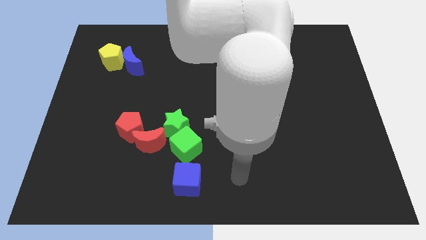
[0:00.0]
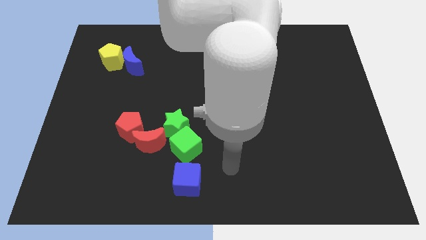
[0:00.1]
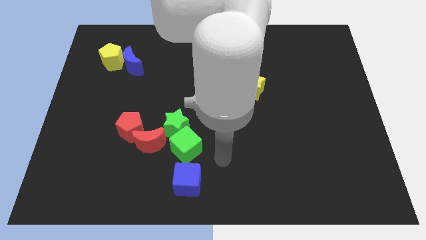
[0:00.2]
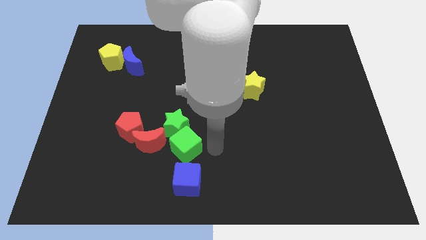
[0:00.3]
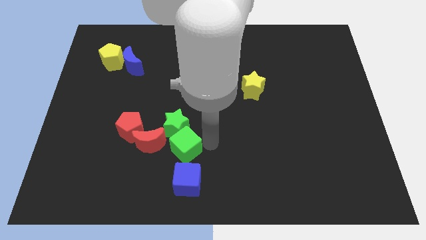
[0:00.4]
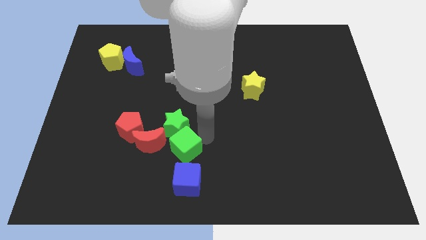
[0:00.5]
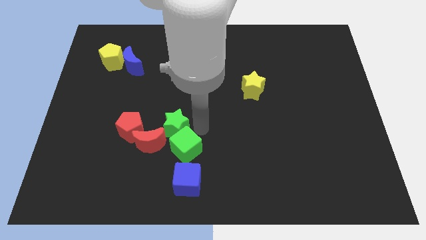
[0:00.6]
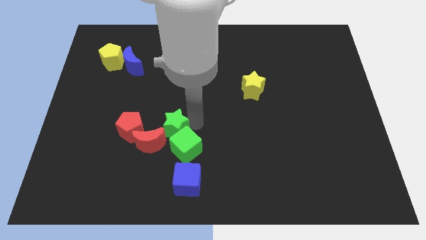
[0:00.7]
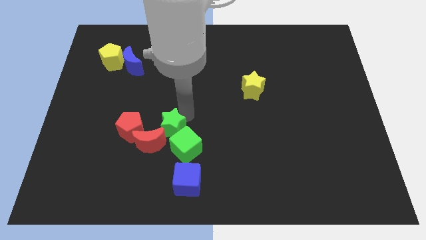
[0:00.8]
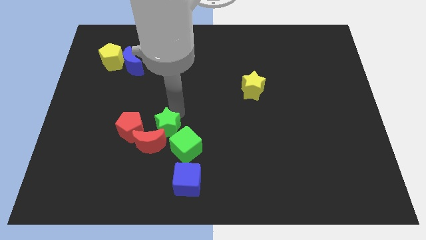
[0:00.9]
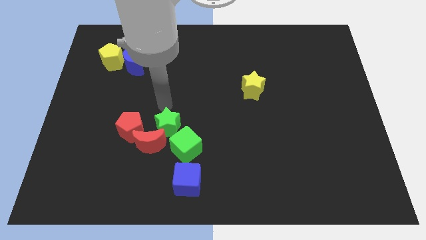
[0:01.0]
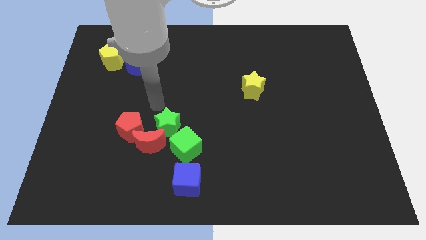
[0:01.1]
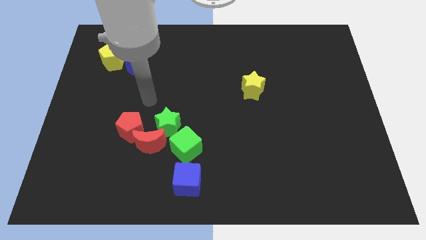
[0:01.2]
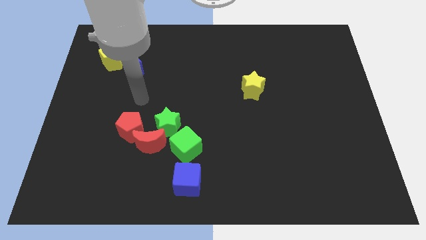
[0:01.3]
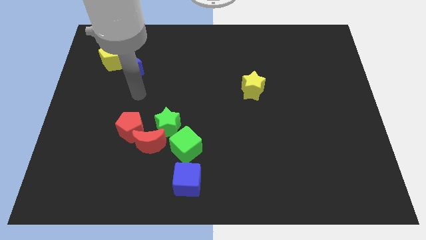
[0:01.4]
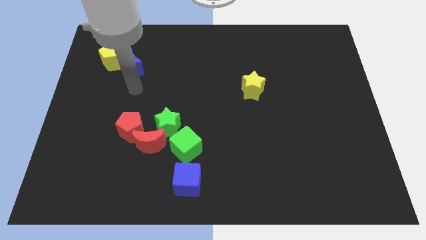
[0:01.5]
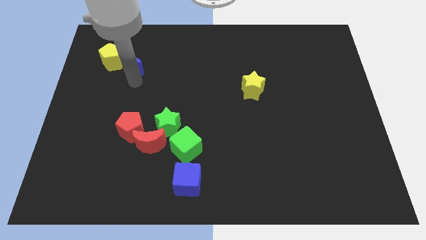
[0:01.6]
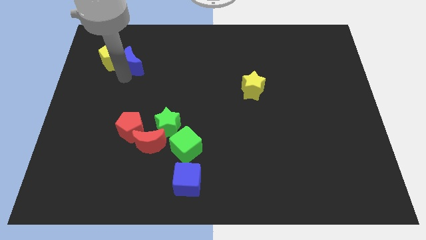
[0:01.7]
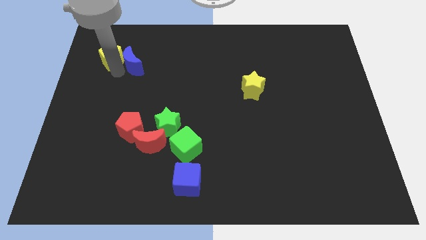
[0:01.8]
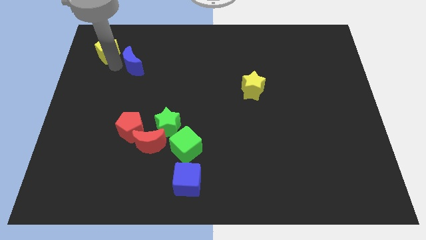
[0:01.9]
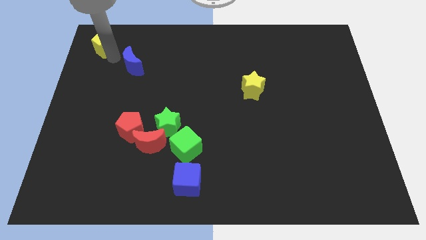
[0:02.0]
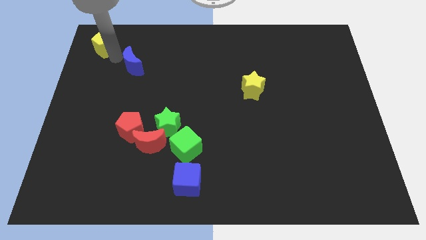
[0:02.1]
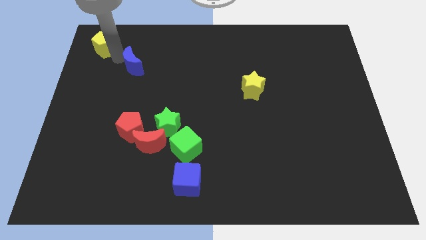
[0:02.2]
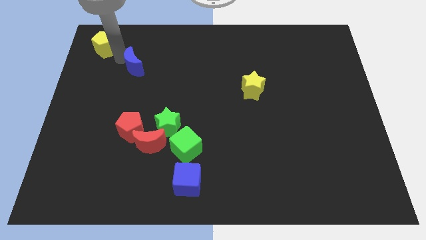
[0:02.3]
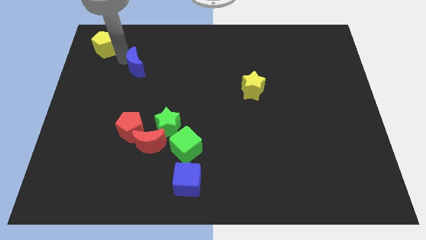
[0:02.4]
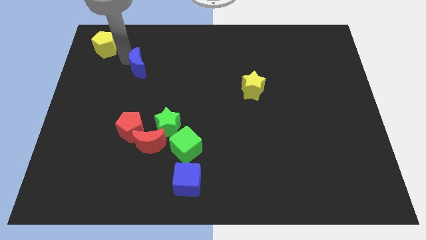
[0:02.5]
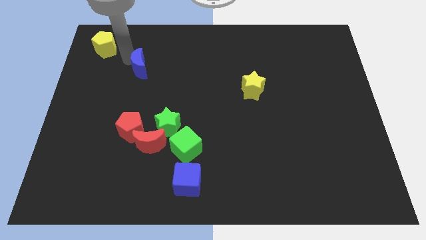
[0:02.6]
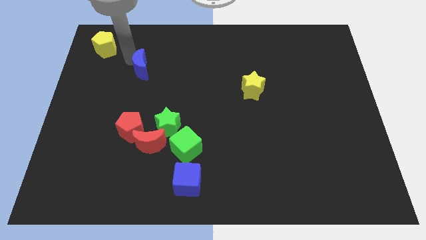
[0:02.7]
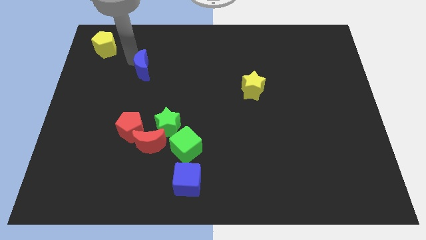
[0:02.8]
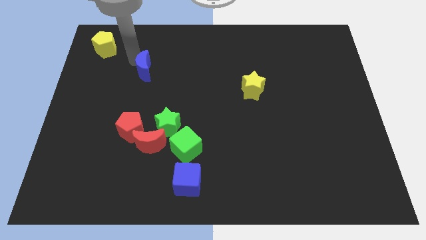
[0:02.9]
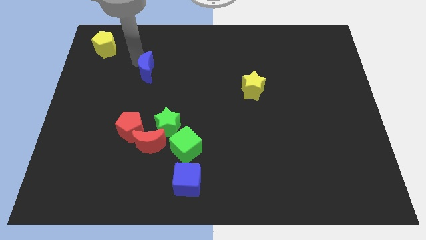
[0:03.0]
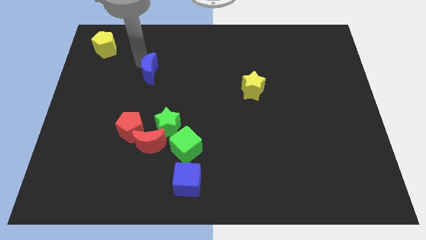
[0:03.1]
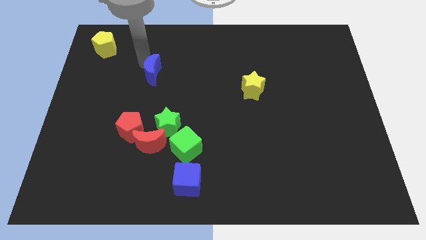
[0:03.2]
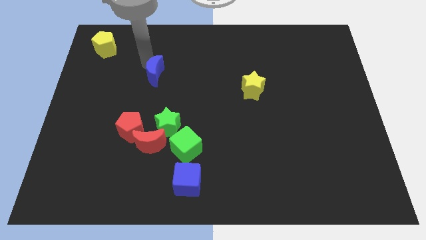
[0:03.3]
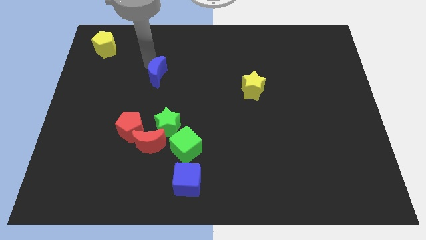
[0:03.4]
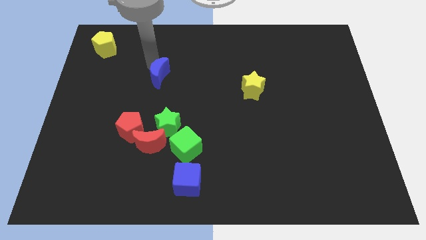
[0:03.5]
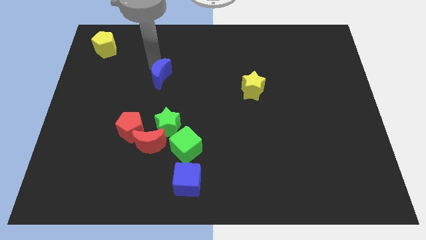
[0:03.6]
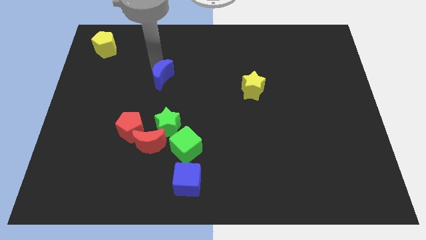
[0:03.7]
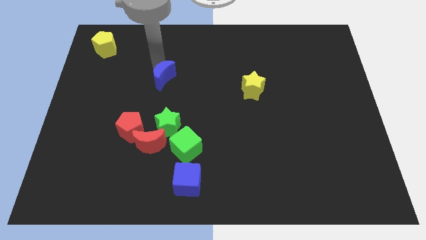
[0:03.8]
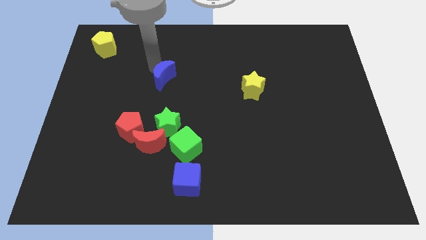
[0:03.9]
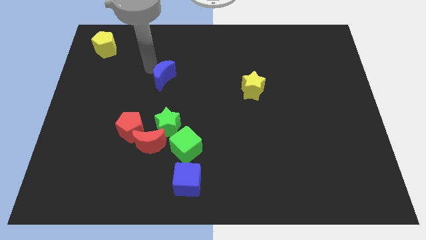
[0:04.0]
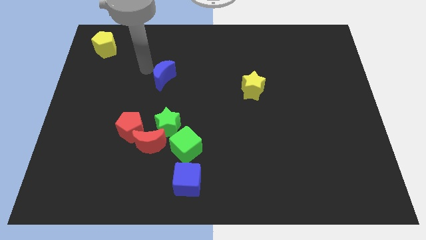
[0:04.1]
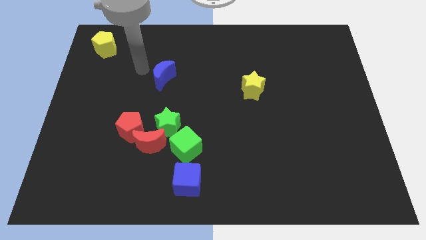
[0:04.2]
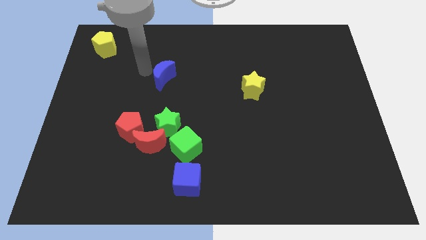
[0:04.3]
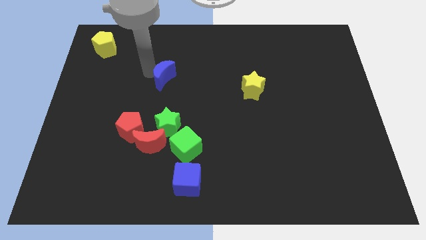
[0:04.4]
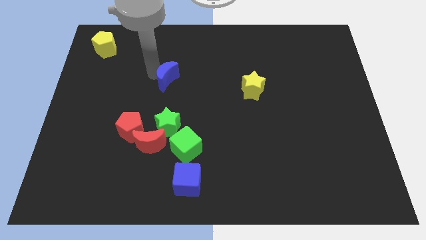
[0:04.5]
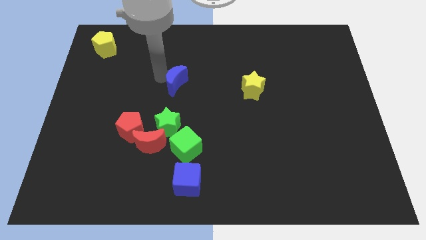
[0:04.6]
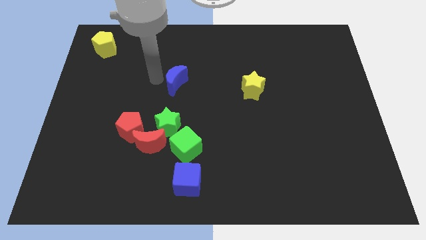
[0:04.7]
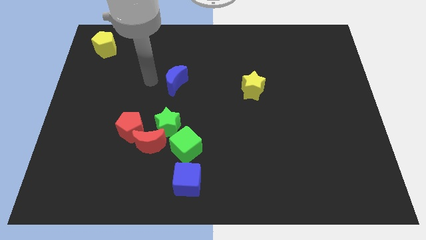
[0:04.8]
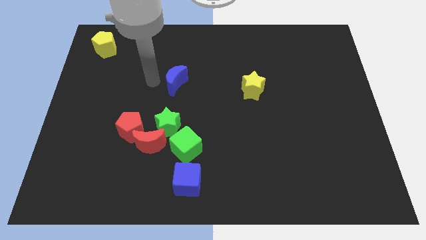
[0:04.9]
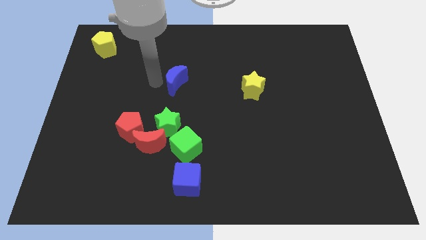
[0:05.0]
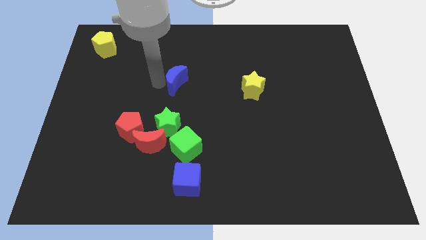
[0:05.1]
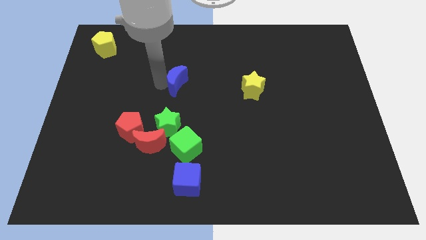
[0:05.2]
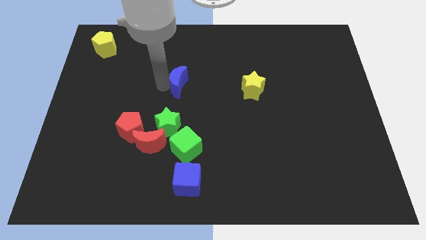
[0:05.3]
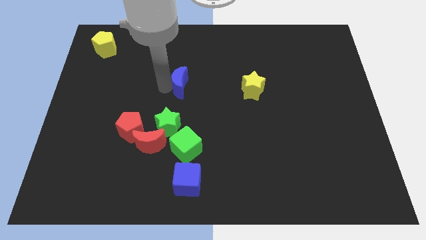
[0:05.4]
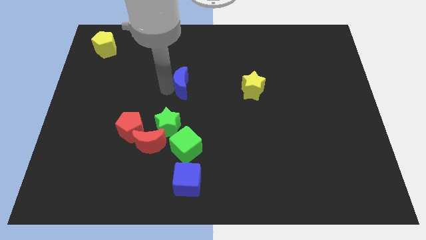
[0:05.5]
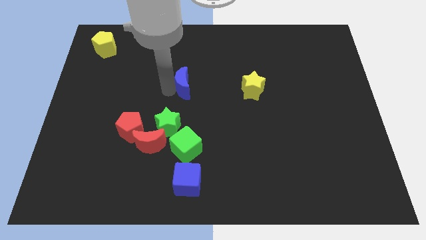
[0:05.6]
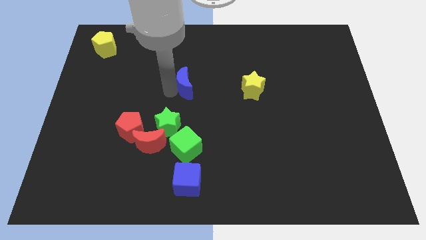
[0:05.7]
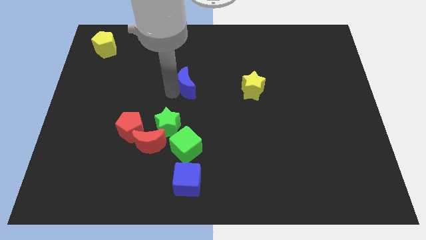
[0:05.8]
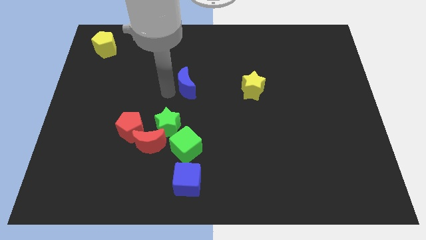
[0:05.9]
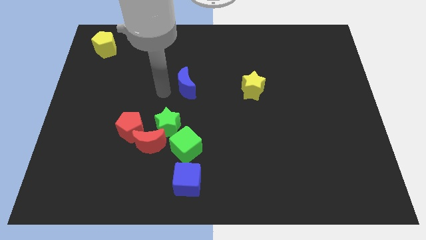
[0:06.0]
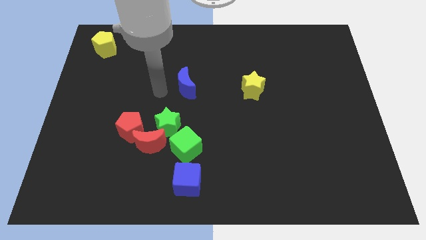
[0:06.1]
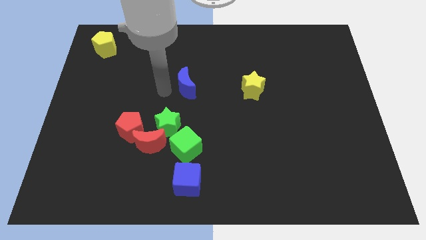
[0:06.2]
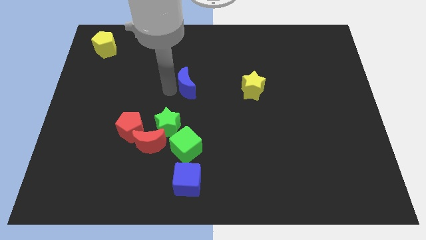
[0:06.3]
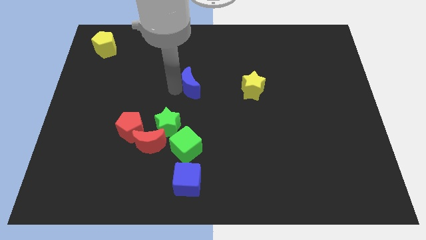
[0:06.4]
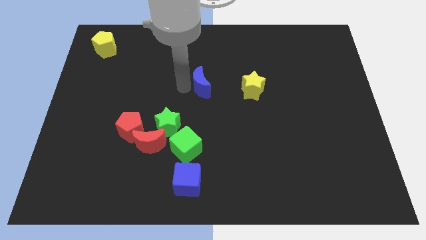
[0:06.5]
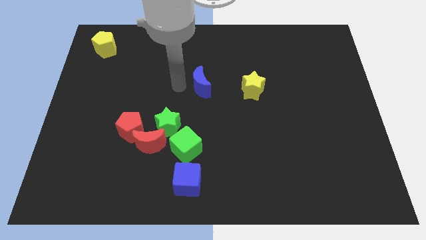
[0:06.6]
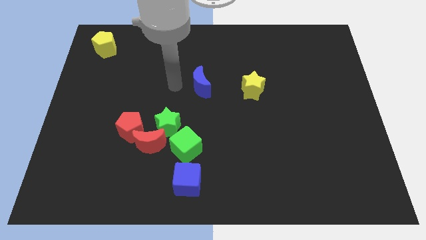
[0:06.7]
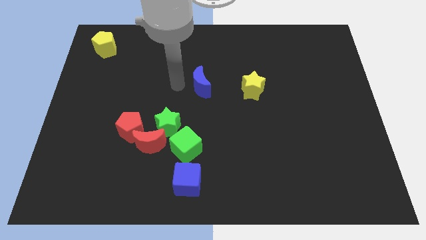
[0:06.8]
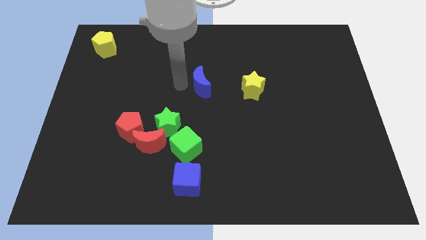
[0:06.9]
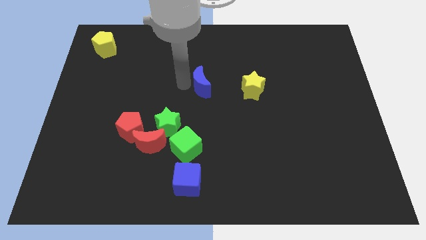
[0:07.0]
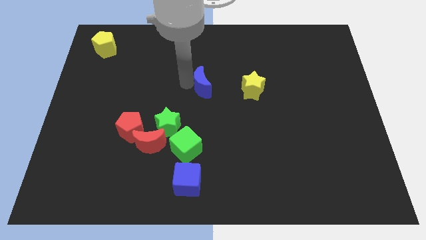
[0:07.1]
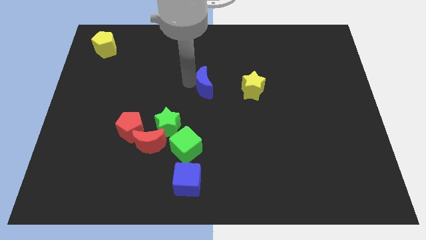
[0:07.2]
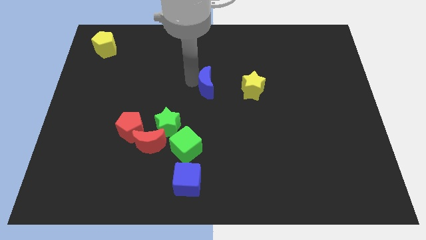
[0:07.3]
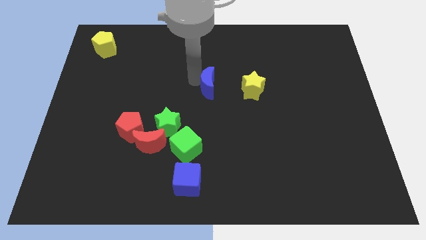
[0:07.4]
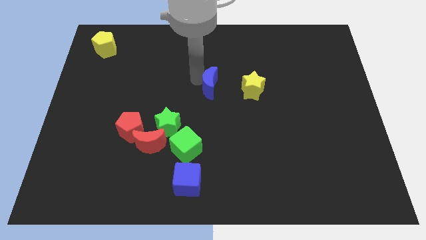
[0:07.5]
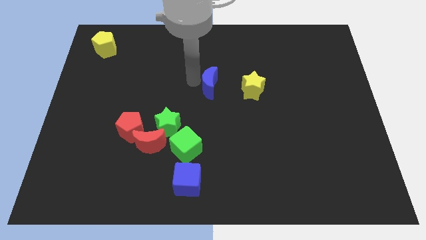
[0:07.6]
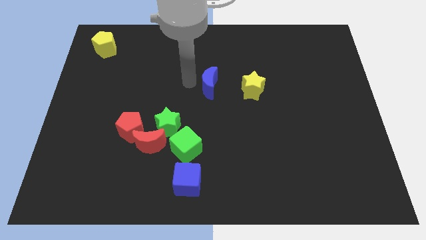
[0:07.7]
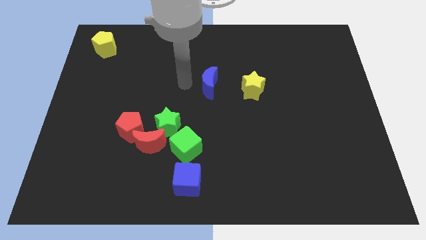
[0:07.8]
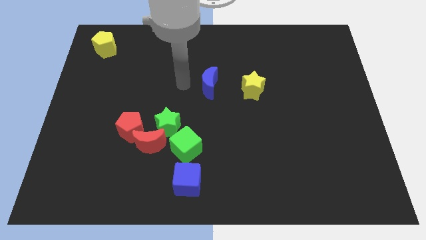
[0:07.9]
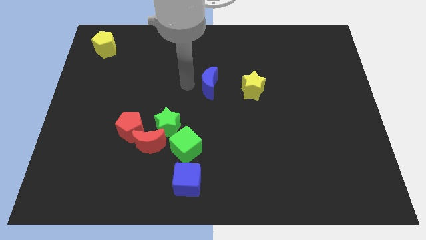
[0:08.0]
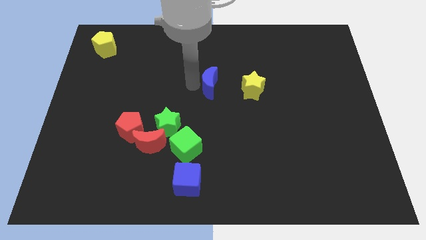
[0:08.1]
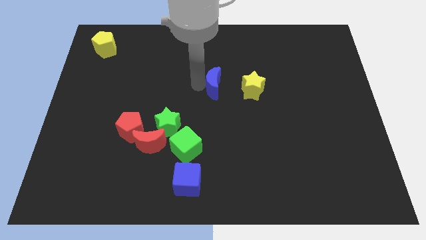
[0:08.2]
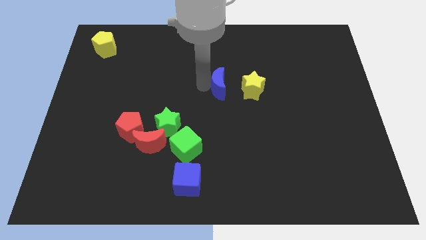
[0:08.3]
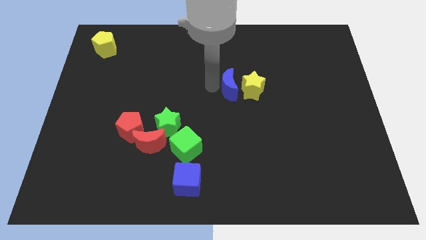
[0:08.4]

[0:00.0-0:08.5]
push the blue moon to the yellow star
